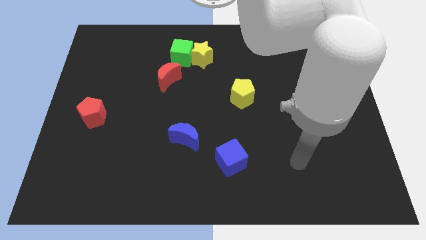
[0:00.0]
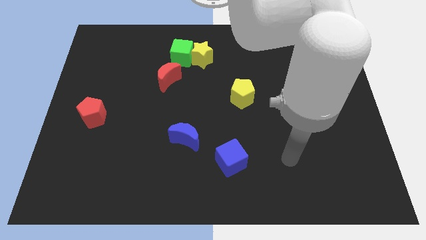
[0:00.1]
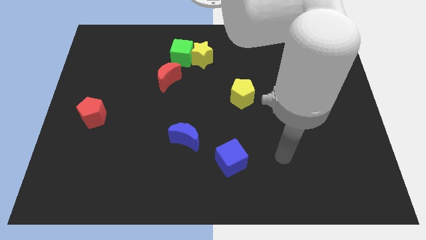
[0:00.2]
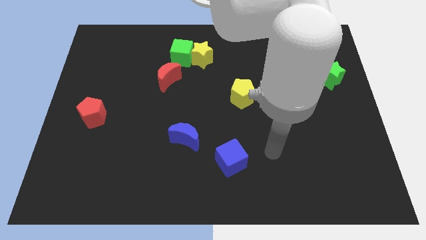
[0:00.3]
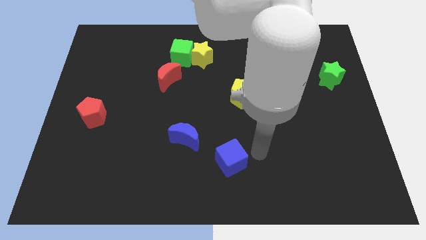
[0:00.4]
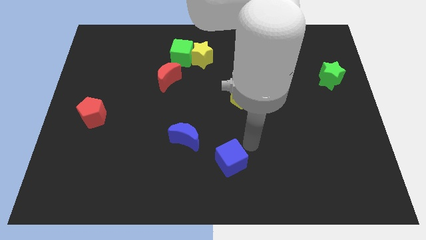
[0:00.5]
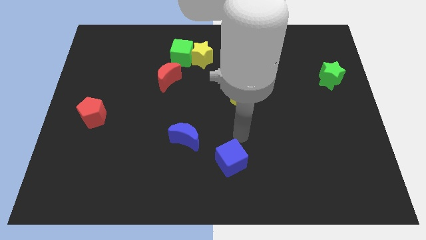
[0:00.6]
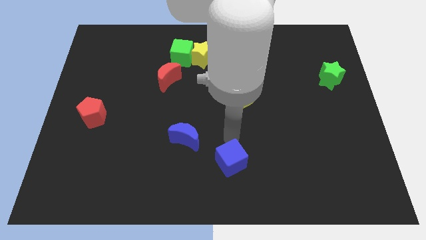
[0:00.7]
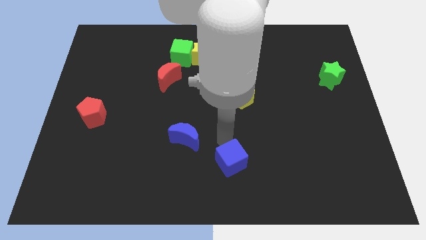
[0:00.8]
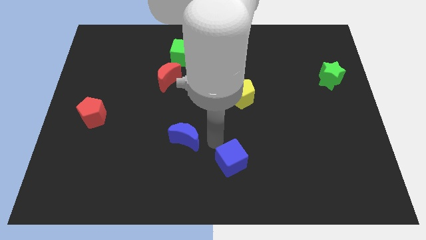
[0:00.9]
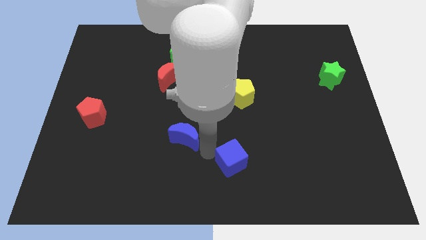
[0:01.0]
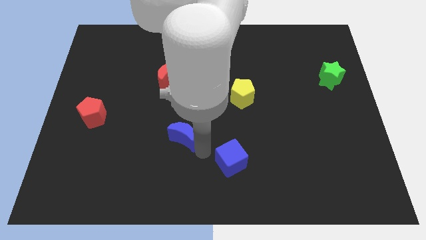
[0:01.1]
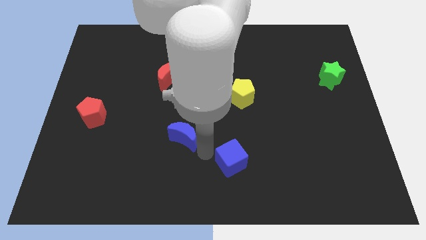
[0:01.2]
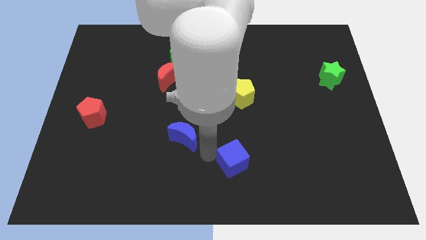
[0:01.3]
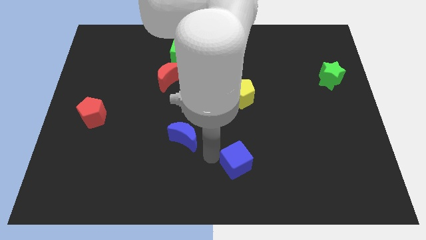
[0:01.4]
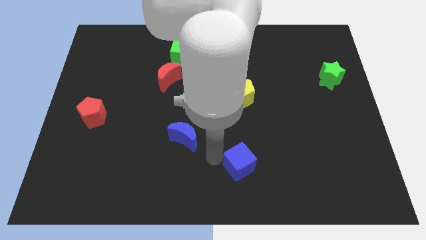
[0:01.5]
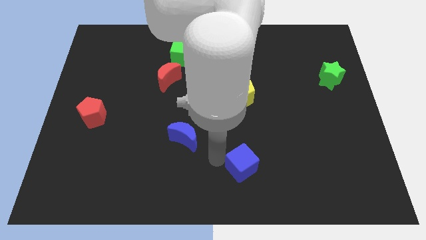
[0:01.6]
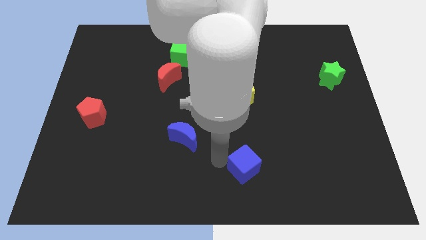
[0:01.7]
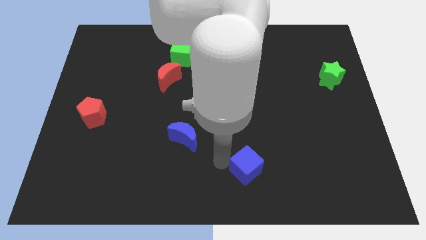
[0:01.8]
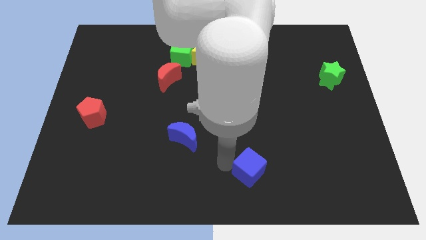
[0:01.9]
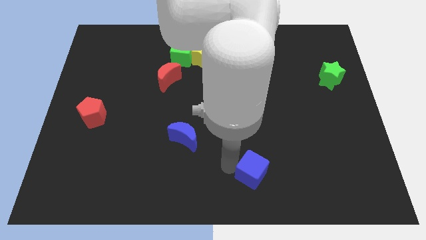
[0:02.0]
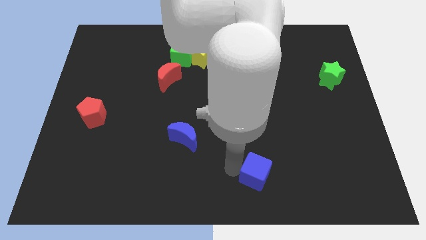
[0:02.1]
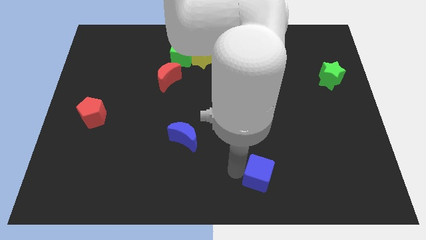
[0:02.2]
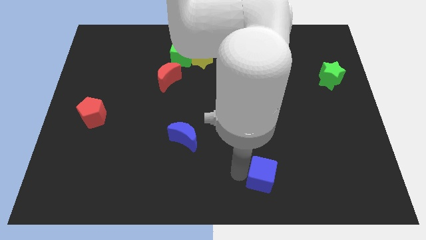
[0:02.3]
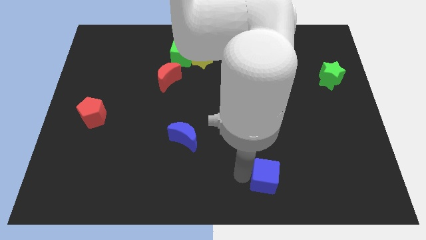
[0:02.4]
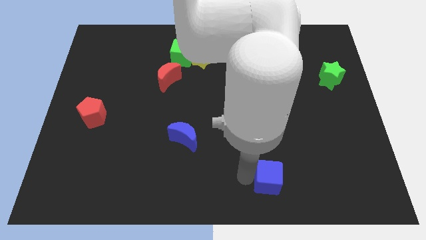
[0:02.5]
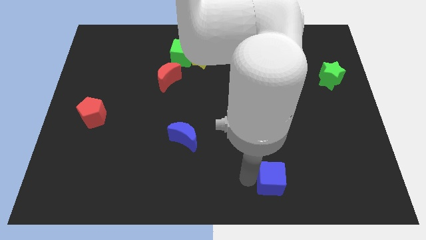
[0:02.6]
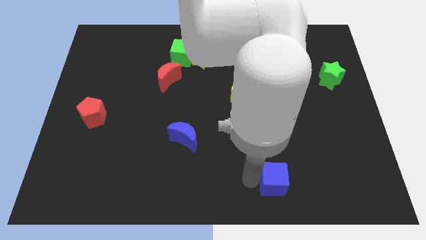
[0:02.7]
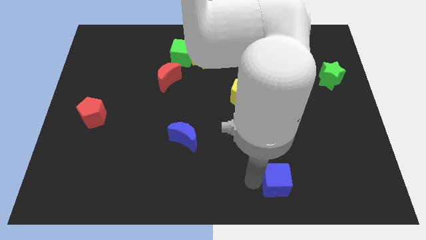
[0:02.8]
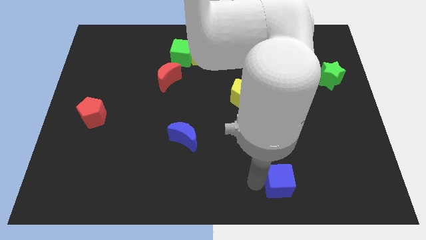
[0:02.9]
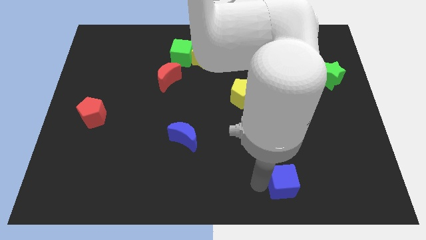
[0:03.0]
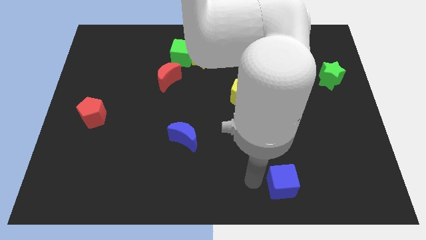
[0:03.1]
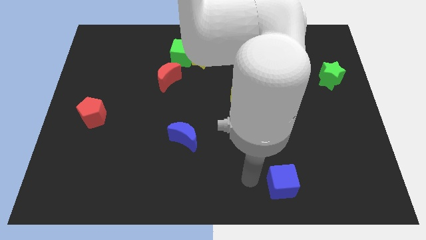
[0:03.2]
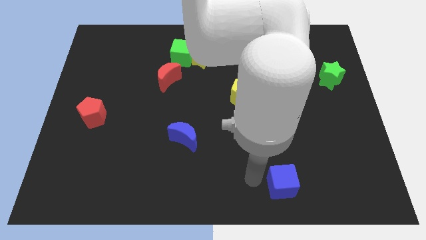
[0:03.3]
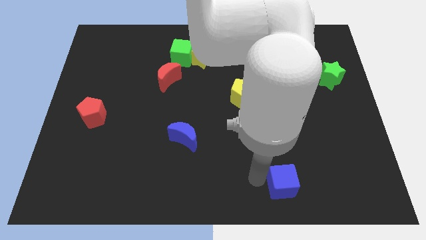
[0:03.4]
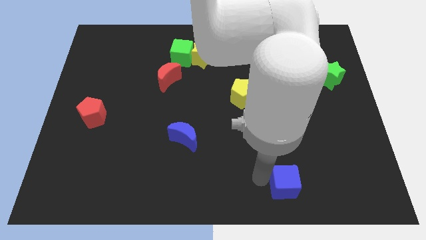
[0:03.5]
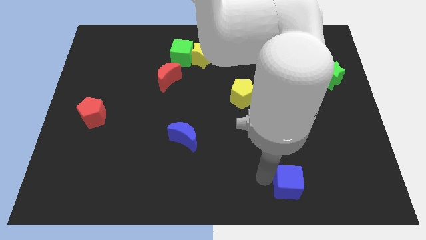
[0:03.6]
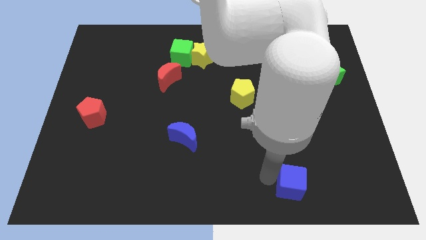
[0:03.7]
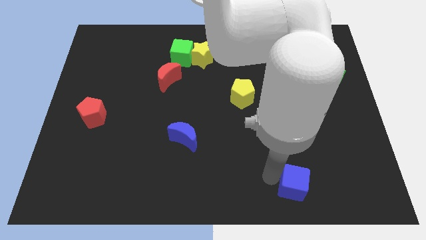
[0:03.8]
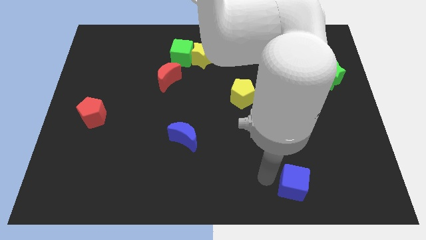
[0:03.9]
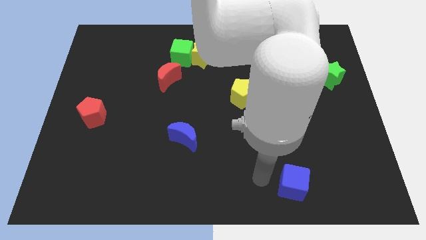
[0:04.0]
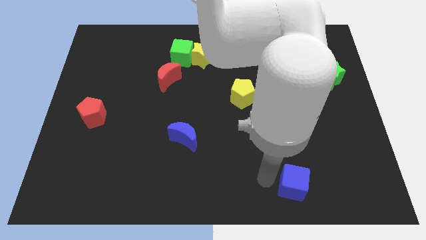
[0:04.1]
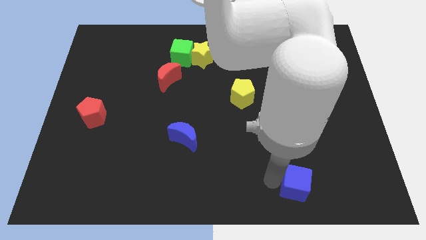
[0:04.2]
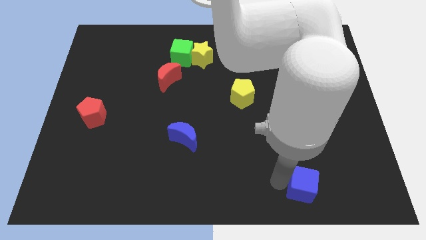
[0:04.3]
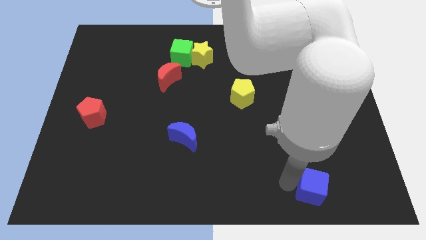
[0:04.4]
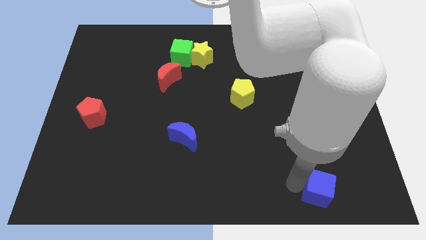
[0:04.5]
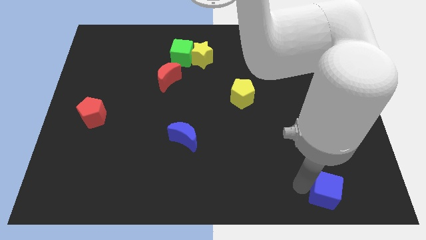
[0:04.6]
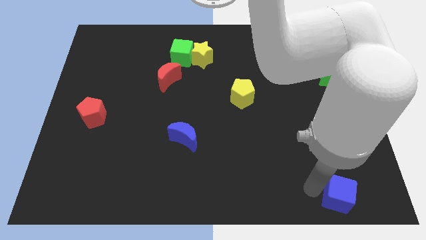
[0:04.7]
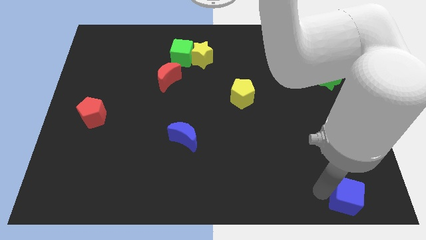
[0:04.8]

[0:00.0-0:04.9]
slide the blue cube to the lower right corner

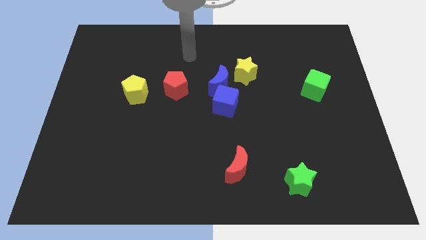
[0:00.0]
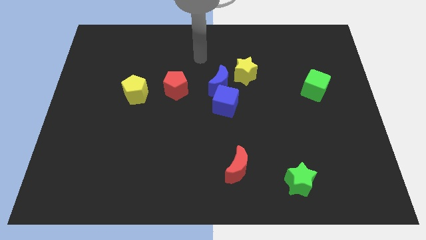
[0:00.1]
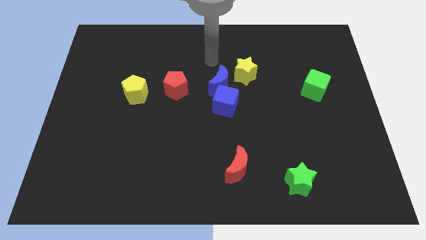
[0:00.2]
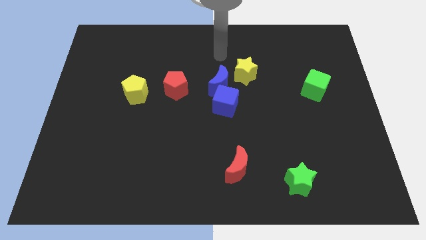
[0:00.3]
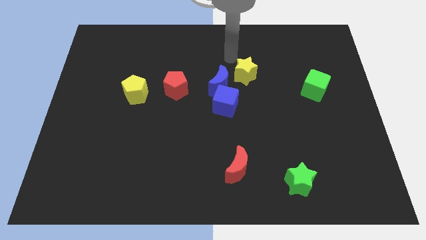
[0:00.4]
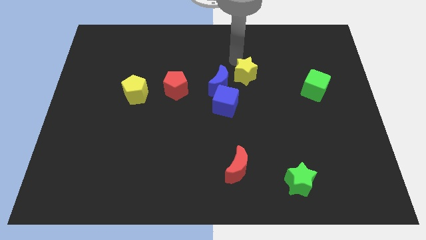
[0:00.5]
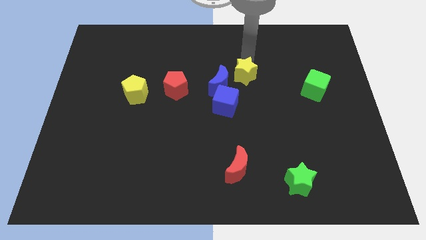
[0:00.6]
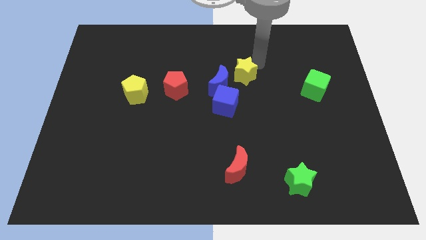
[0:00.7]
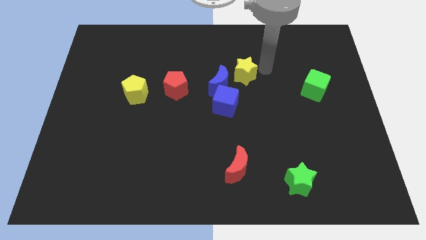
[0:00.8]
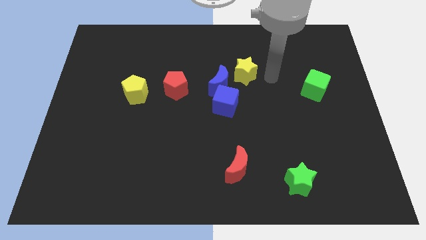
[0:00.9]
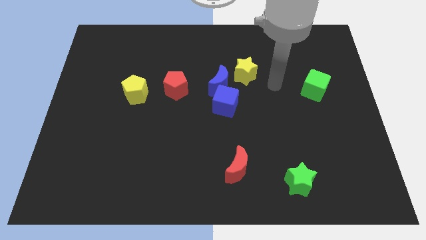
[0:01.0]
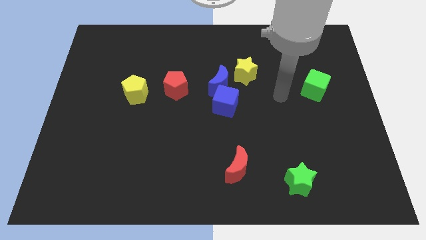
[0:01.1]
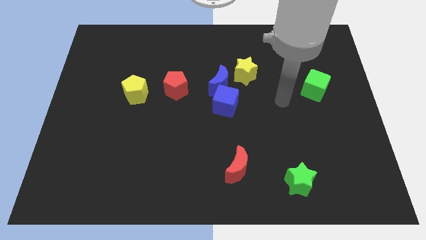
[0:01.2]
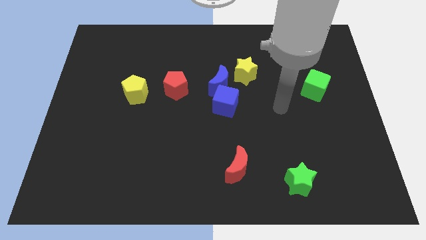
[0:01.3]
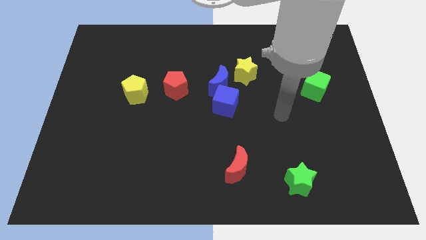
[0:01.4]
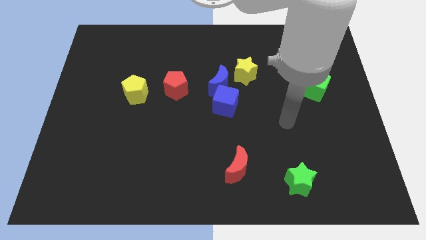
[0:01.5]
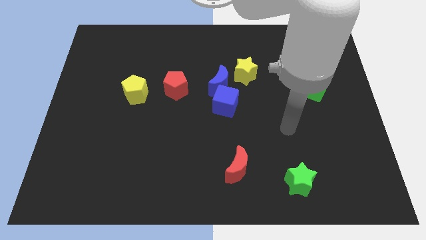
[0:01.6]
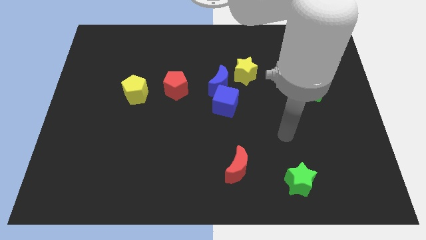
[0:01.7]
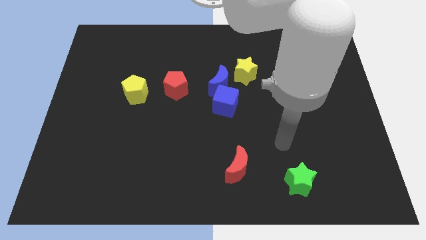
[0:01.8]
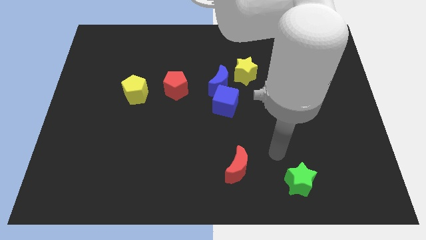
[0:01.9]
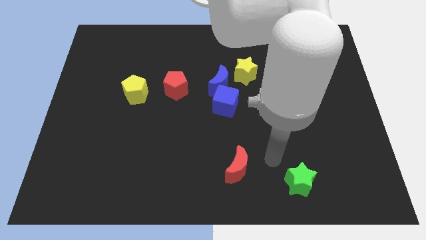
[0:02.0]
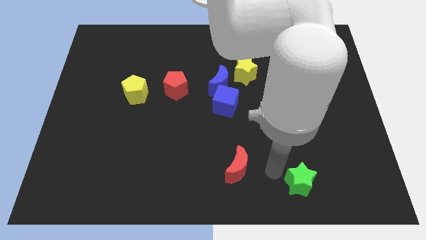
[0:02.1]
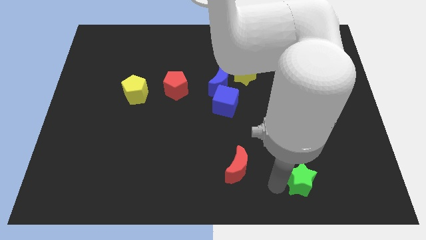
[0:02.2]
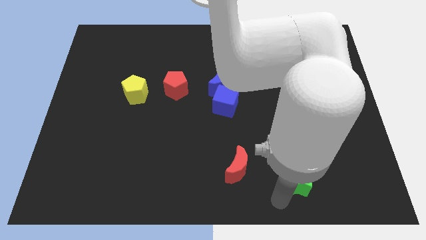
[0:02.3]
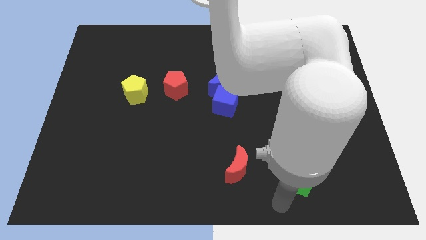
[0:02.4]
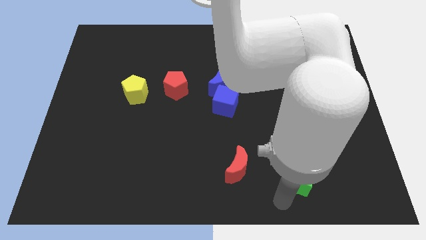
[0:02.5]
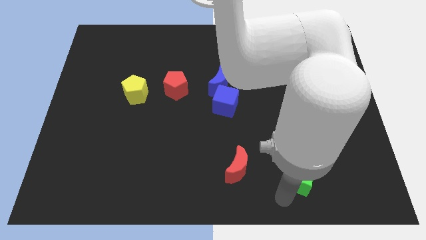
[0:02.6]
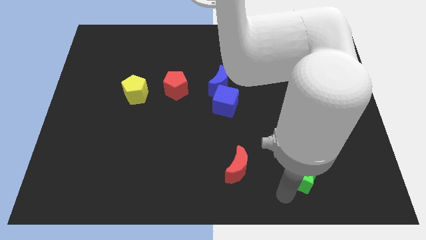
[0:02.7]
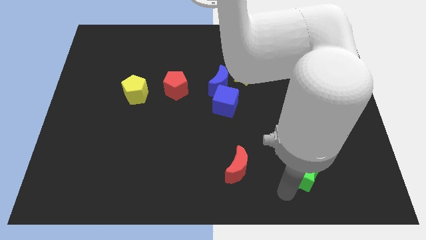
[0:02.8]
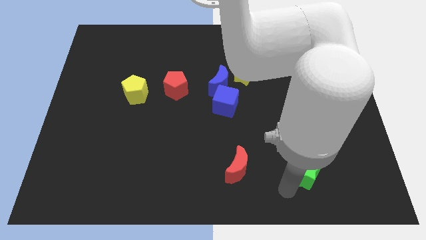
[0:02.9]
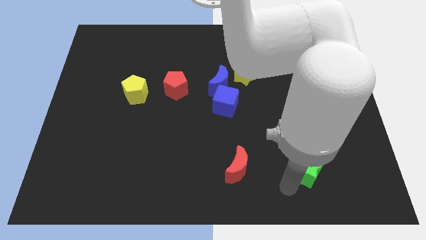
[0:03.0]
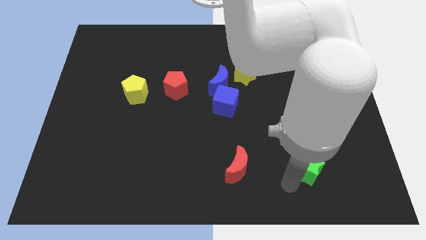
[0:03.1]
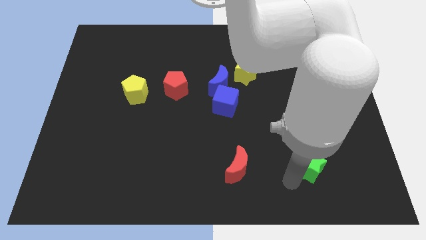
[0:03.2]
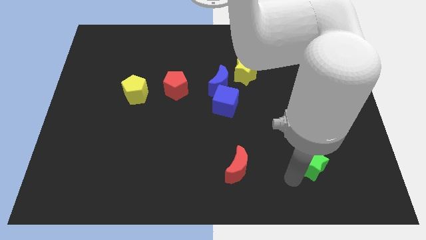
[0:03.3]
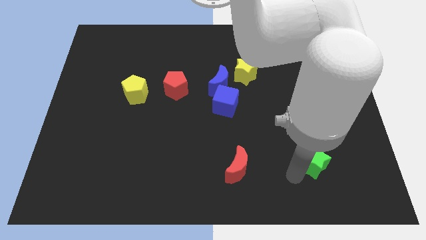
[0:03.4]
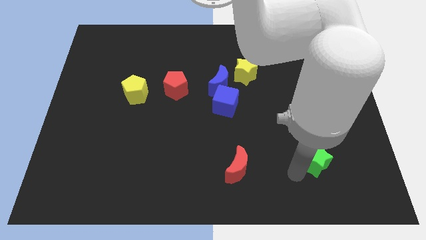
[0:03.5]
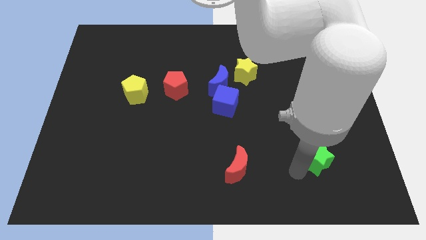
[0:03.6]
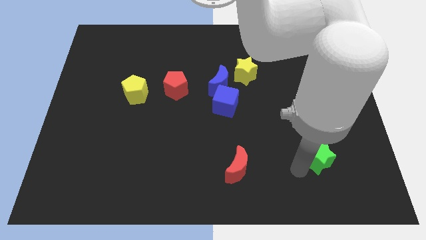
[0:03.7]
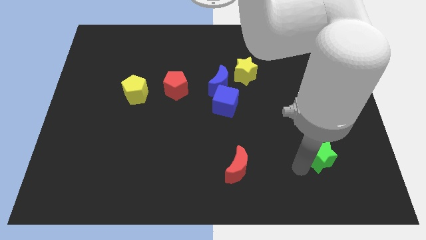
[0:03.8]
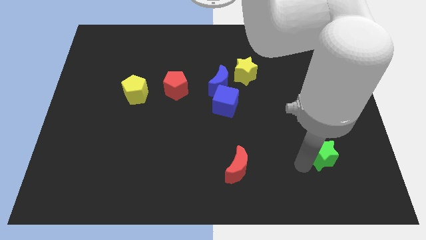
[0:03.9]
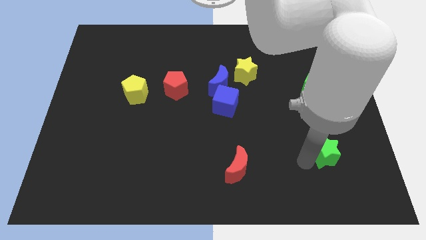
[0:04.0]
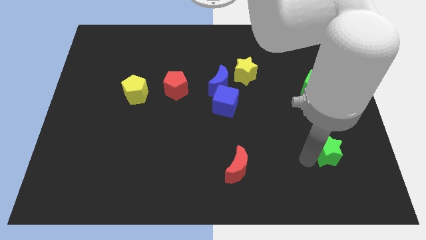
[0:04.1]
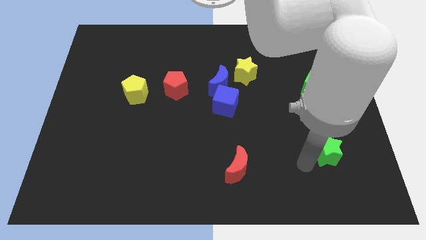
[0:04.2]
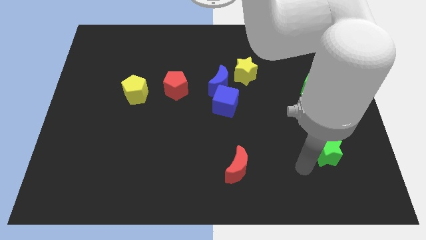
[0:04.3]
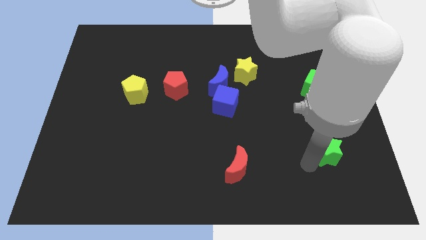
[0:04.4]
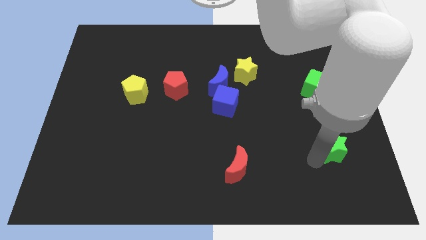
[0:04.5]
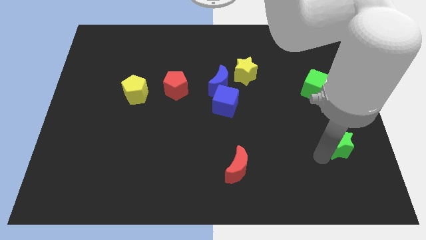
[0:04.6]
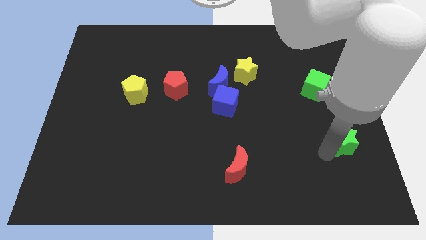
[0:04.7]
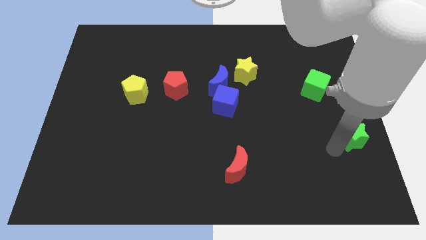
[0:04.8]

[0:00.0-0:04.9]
put the green star to the right side
